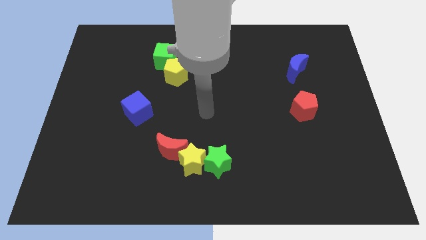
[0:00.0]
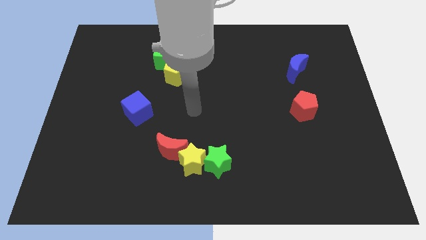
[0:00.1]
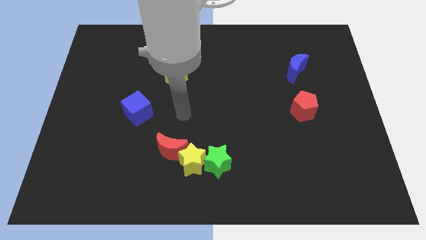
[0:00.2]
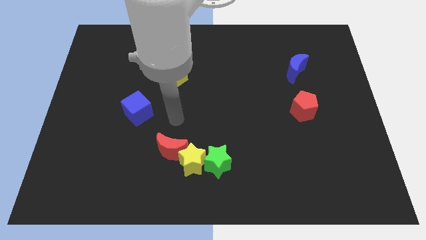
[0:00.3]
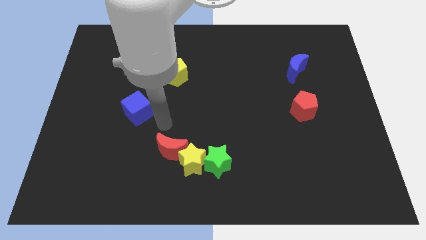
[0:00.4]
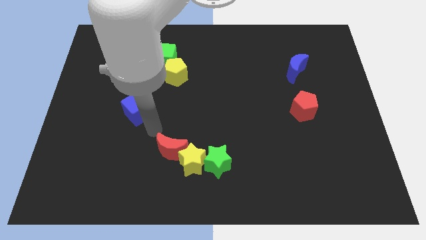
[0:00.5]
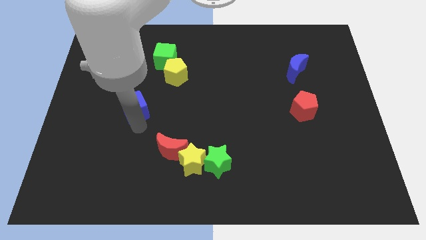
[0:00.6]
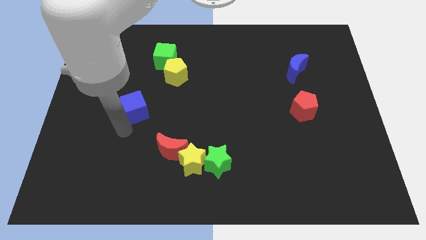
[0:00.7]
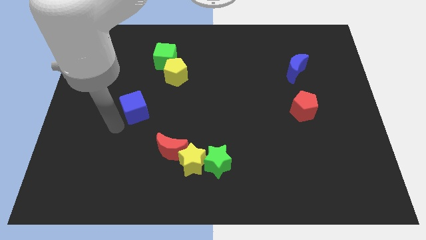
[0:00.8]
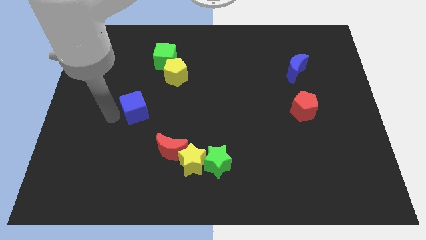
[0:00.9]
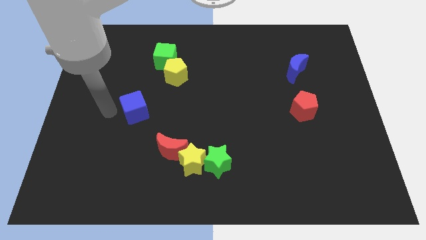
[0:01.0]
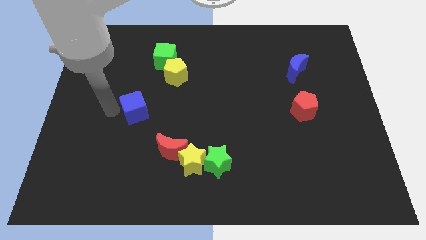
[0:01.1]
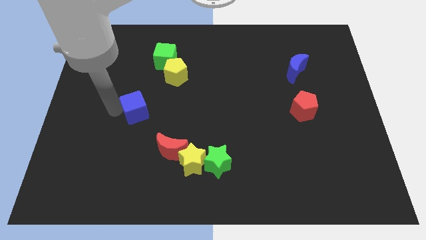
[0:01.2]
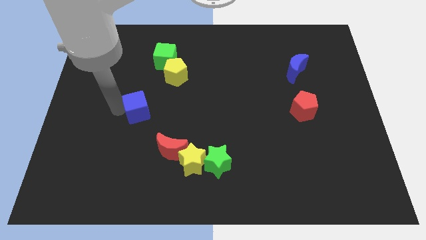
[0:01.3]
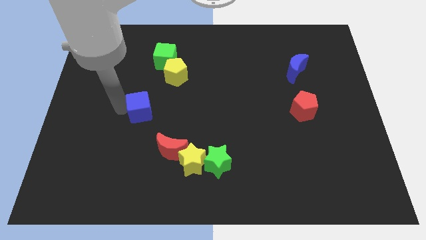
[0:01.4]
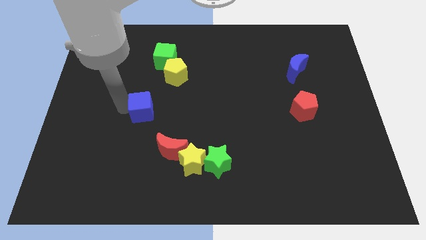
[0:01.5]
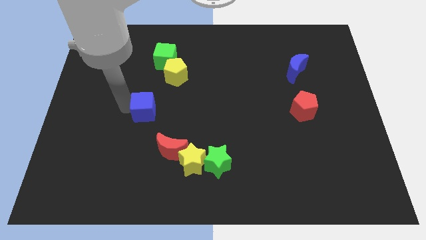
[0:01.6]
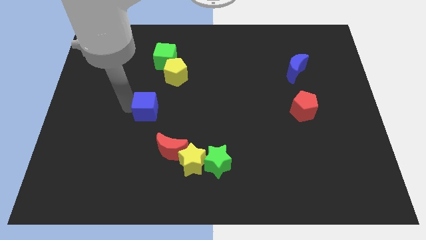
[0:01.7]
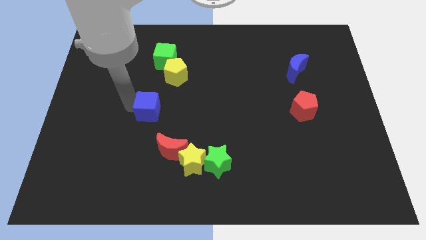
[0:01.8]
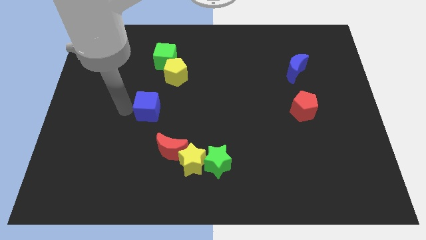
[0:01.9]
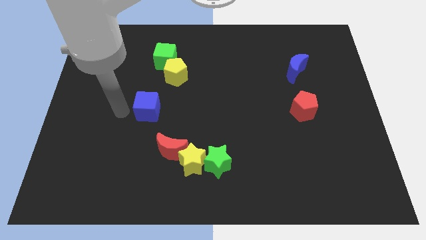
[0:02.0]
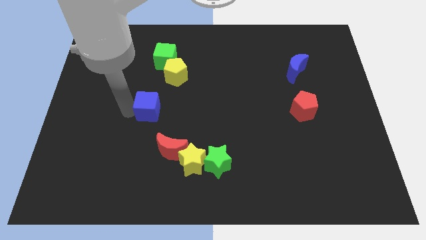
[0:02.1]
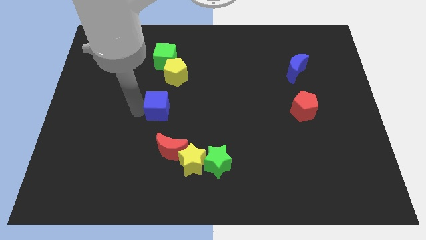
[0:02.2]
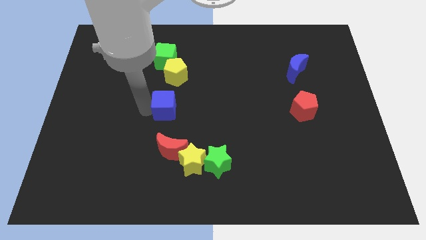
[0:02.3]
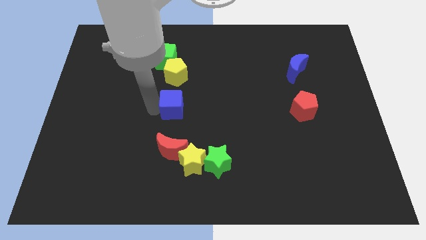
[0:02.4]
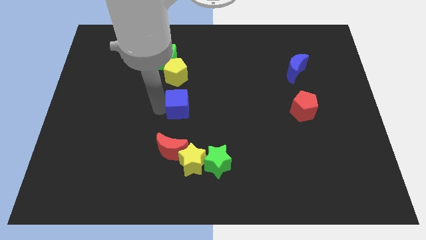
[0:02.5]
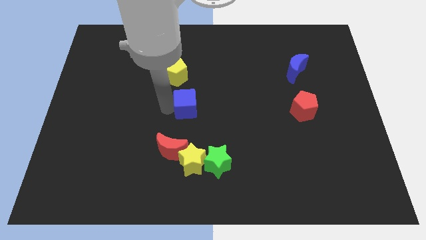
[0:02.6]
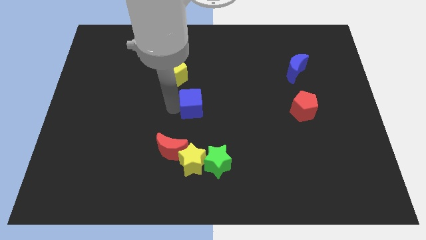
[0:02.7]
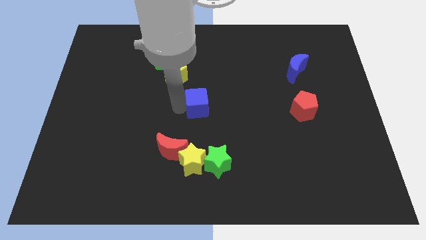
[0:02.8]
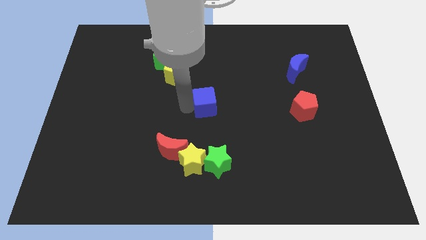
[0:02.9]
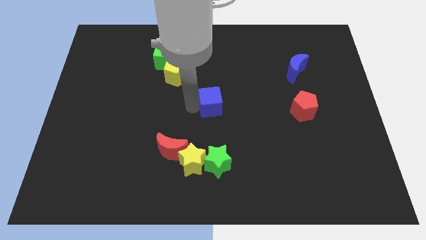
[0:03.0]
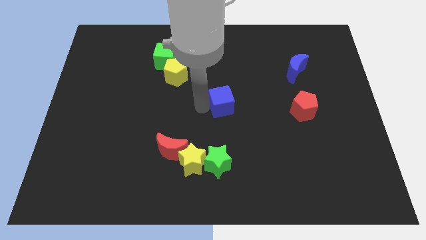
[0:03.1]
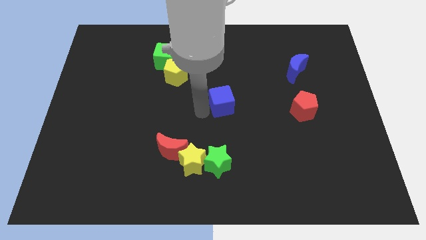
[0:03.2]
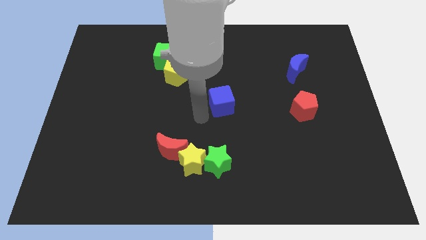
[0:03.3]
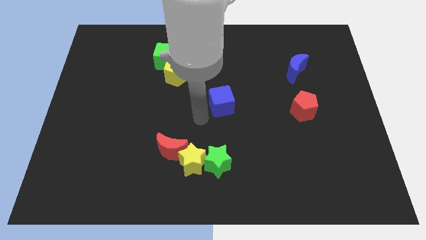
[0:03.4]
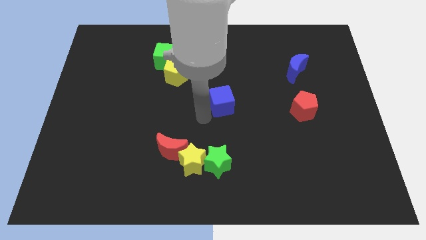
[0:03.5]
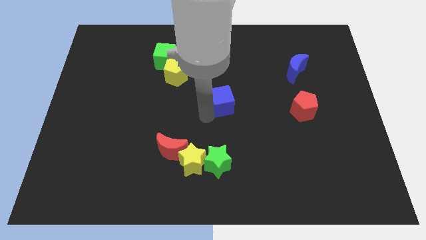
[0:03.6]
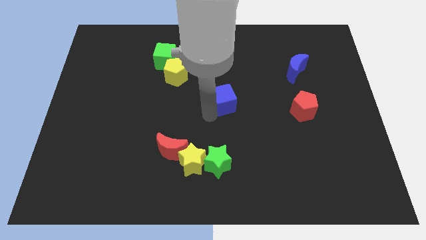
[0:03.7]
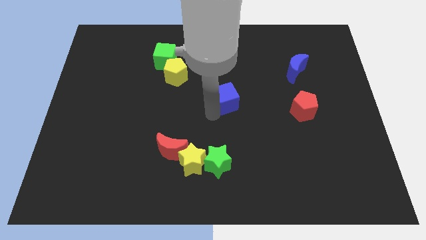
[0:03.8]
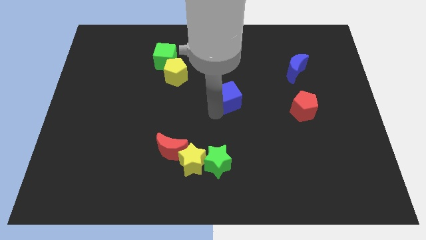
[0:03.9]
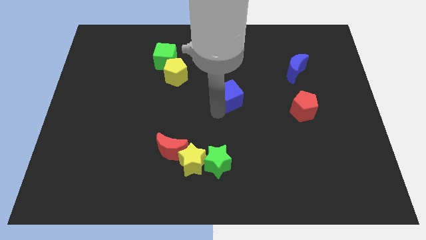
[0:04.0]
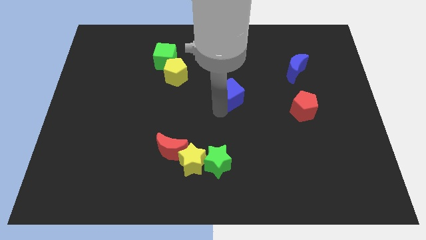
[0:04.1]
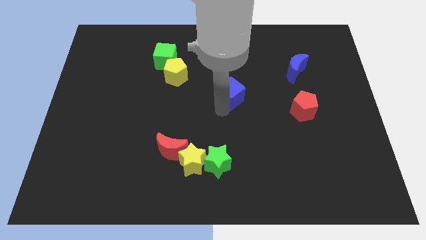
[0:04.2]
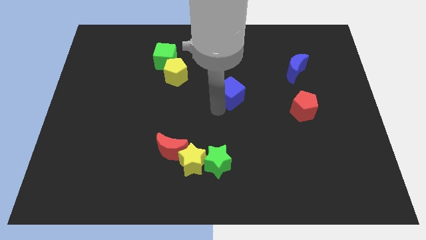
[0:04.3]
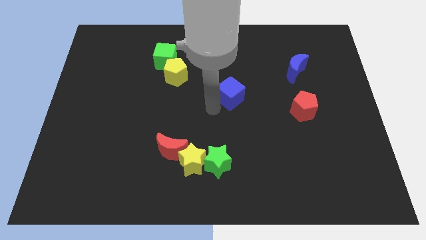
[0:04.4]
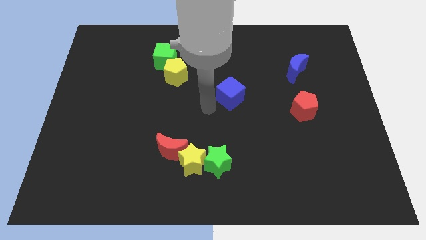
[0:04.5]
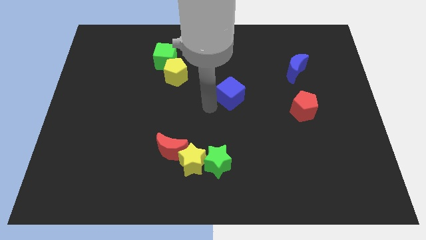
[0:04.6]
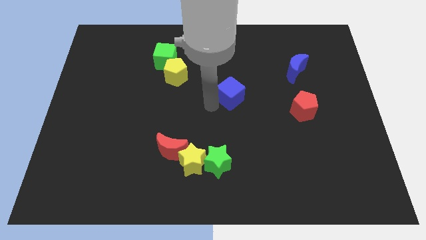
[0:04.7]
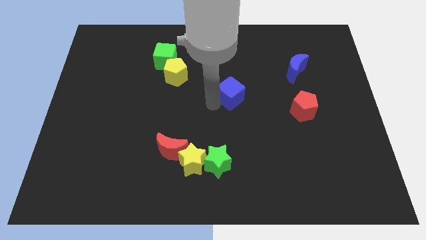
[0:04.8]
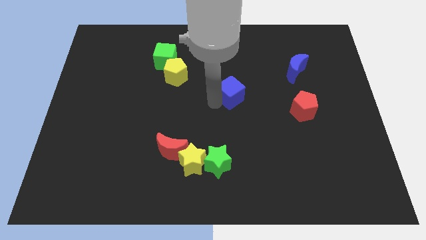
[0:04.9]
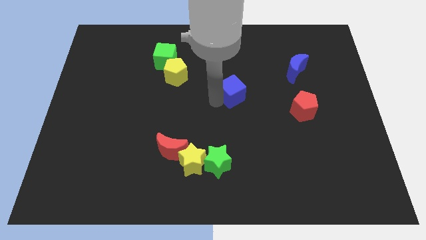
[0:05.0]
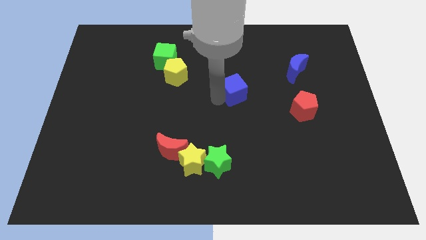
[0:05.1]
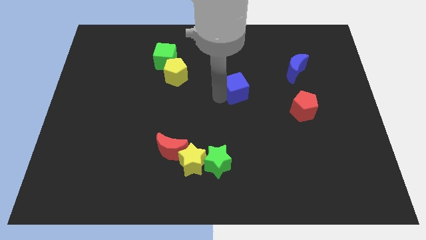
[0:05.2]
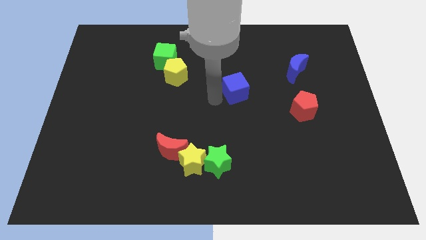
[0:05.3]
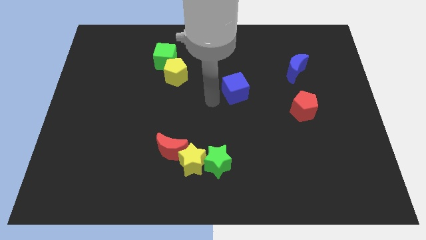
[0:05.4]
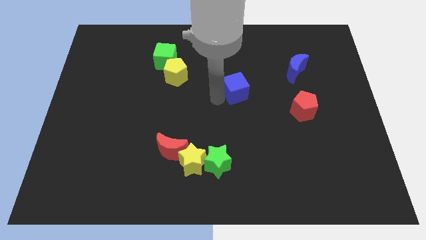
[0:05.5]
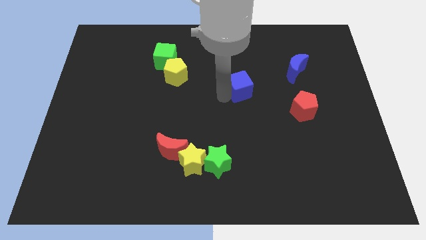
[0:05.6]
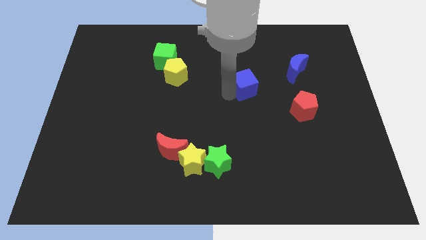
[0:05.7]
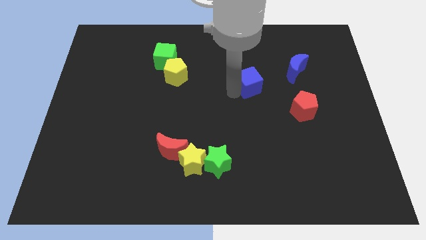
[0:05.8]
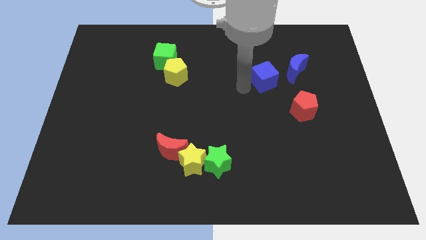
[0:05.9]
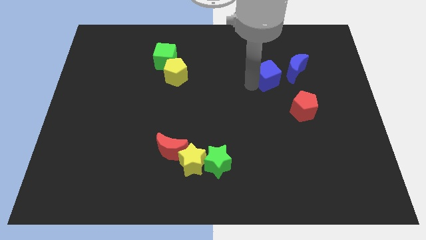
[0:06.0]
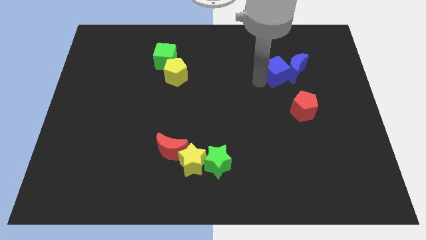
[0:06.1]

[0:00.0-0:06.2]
put the blue cube towards the blue moon
